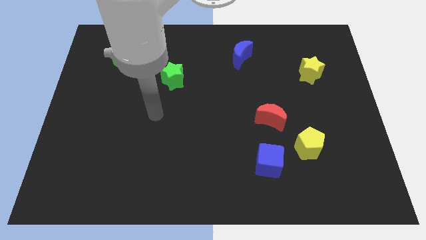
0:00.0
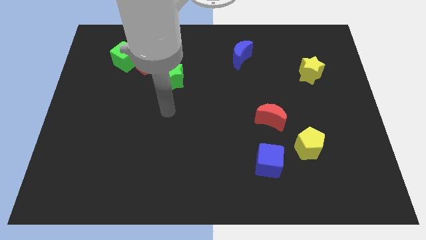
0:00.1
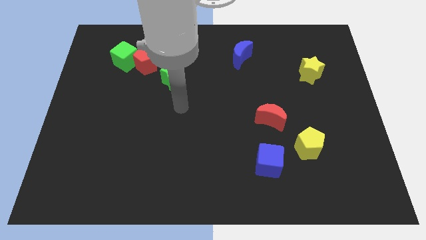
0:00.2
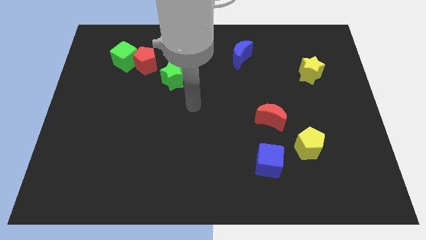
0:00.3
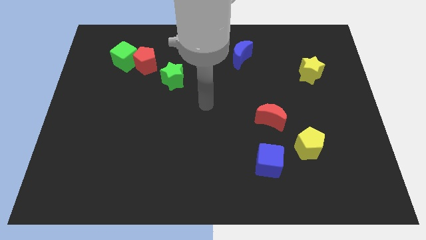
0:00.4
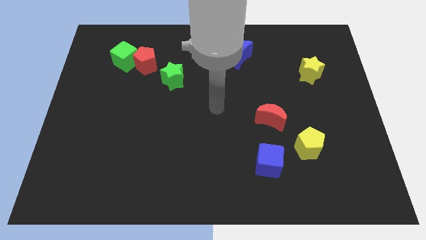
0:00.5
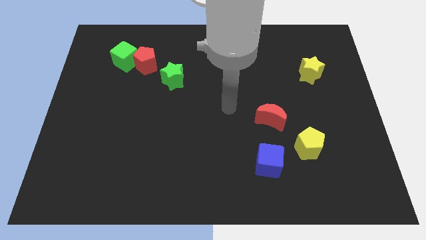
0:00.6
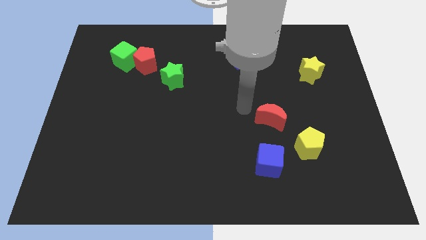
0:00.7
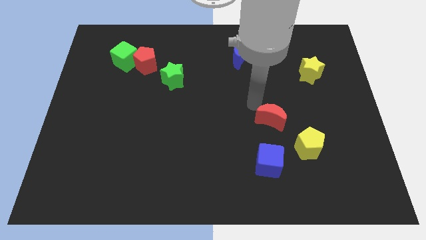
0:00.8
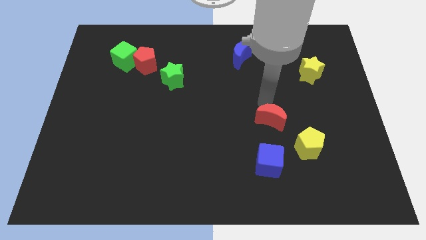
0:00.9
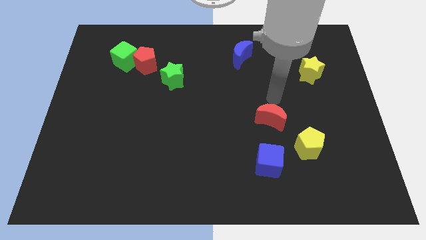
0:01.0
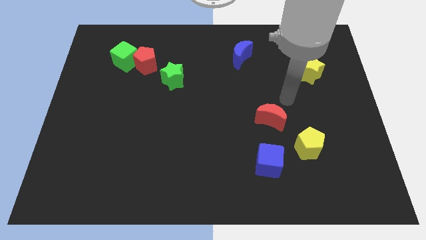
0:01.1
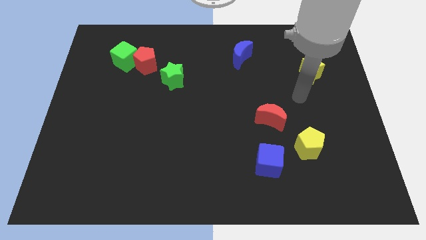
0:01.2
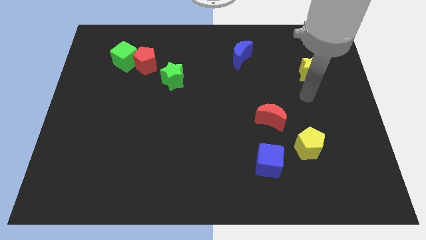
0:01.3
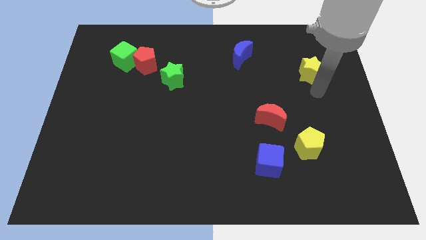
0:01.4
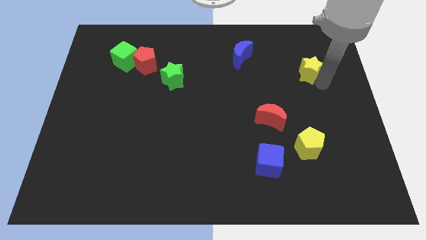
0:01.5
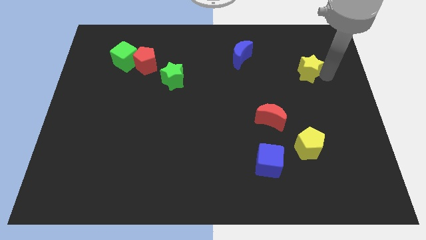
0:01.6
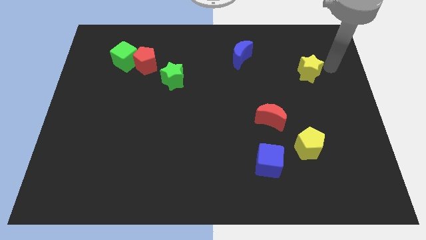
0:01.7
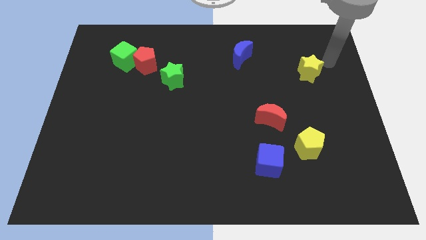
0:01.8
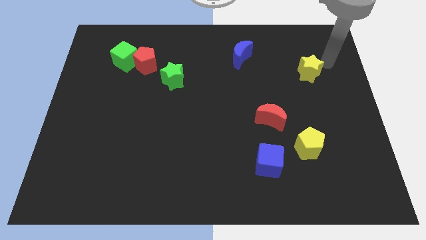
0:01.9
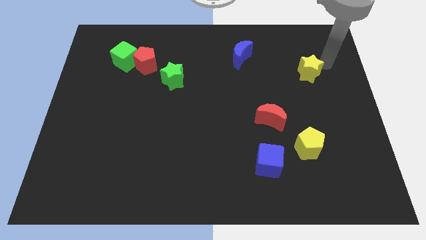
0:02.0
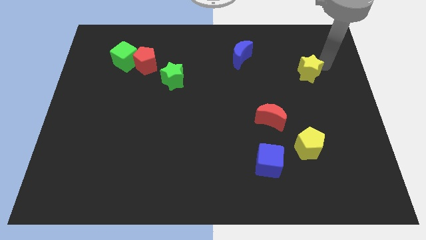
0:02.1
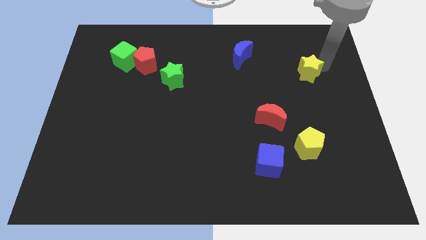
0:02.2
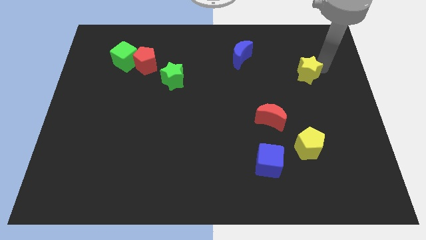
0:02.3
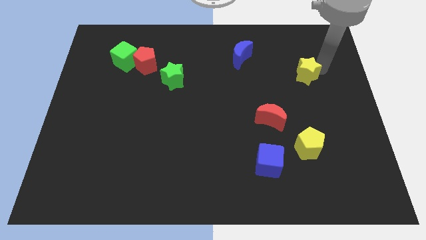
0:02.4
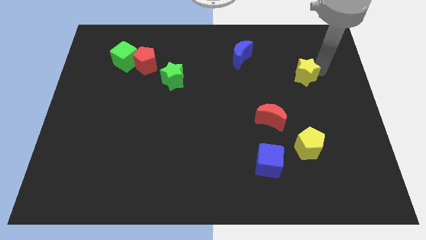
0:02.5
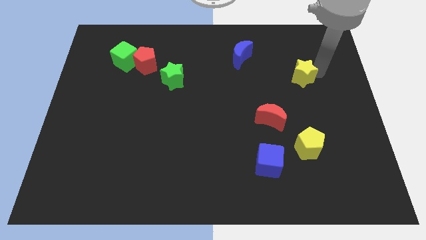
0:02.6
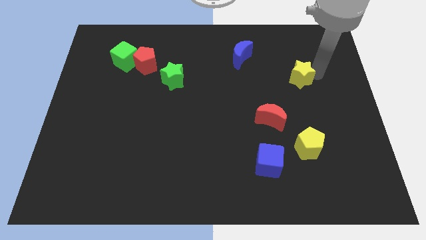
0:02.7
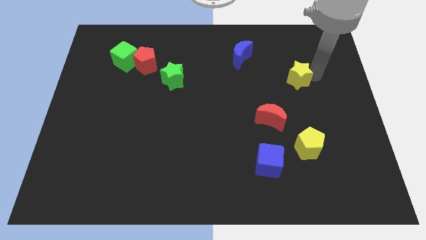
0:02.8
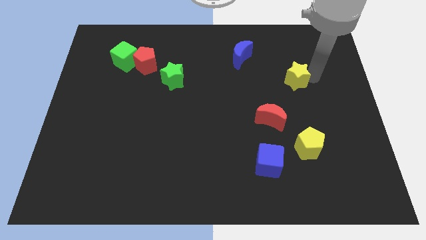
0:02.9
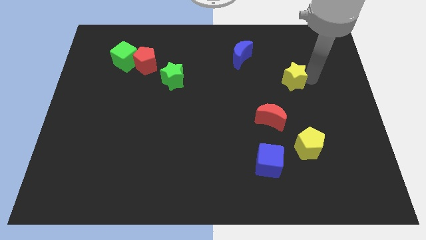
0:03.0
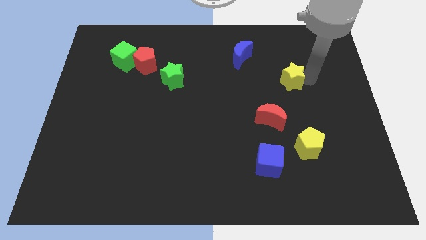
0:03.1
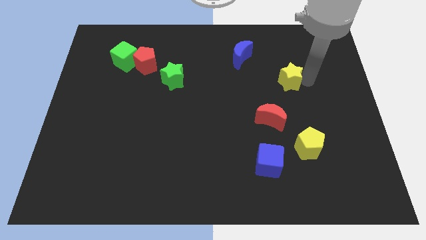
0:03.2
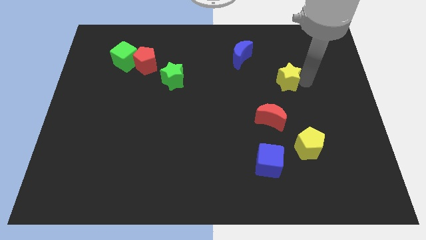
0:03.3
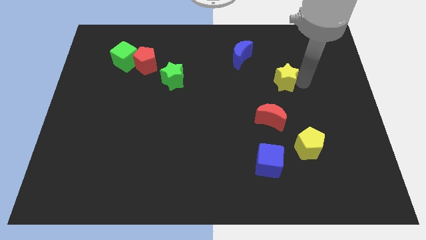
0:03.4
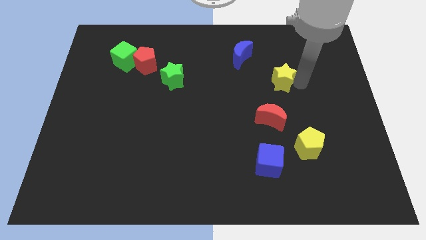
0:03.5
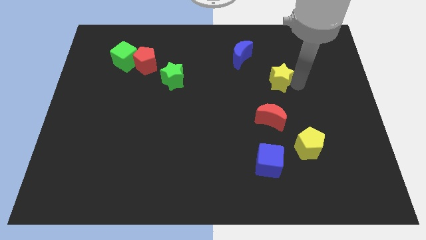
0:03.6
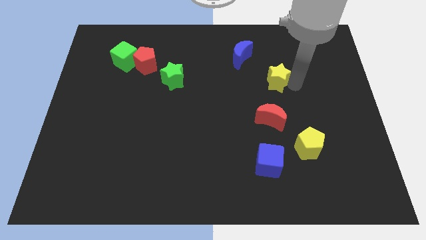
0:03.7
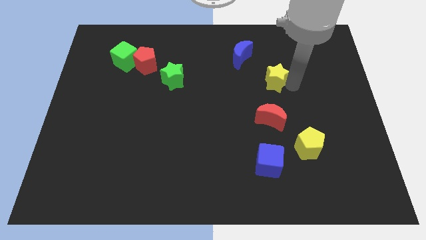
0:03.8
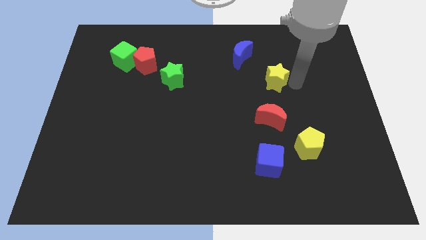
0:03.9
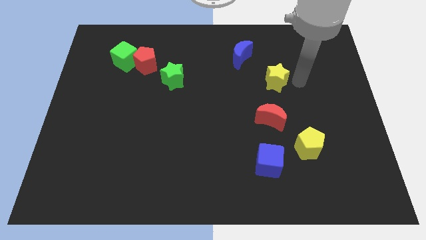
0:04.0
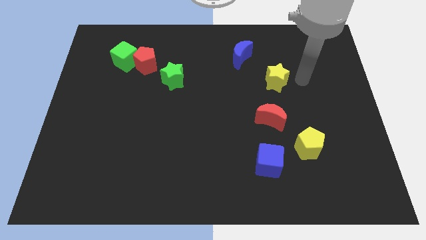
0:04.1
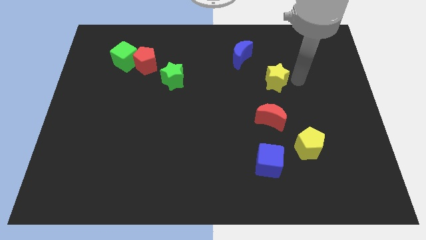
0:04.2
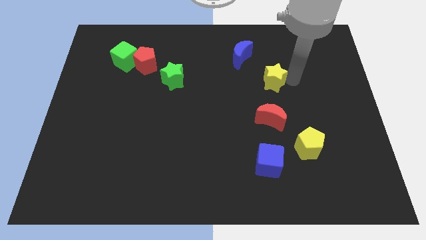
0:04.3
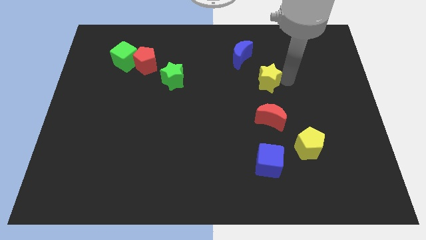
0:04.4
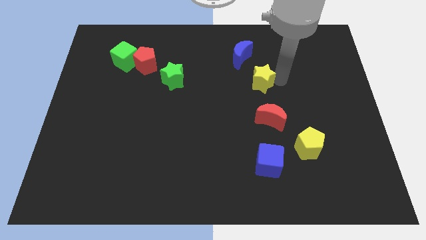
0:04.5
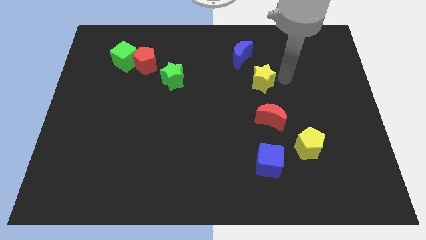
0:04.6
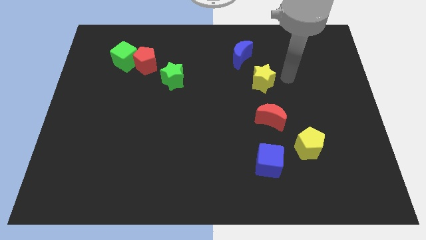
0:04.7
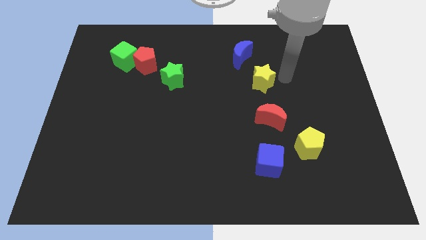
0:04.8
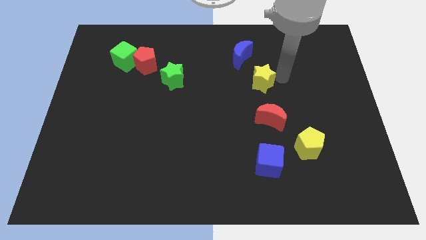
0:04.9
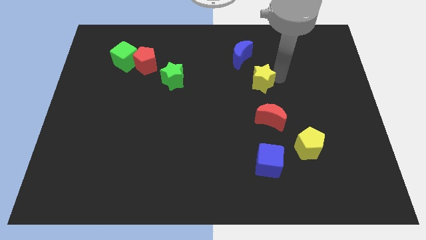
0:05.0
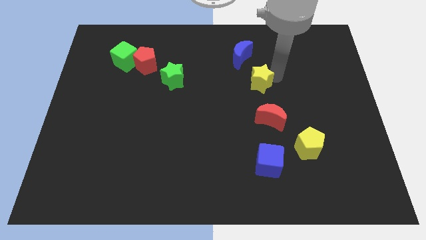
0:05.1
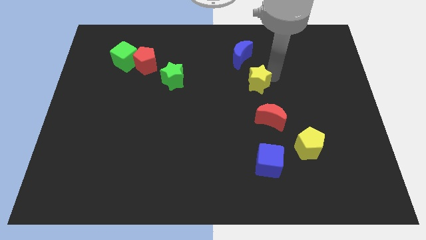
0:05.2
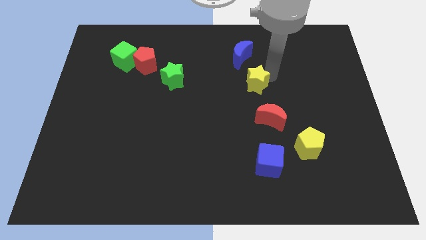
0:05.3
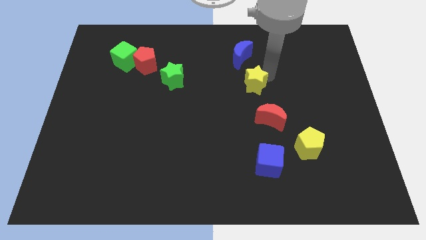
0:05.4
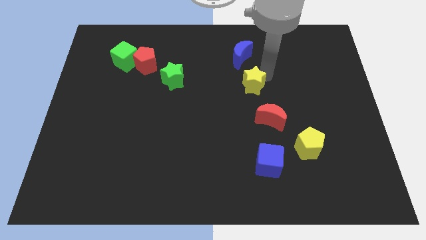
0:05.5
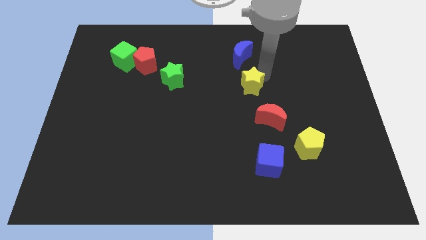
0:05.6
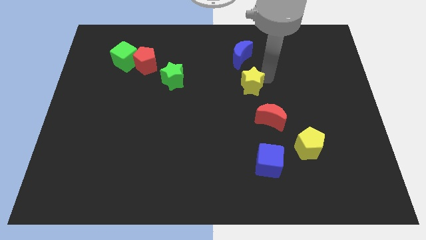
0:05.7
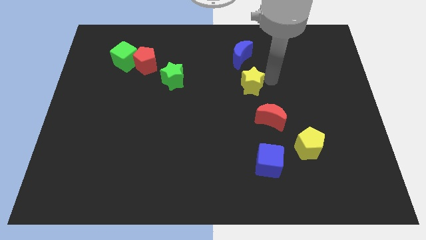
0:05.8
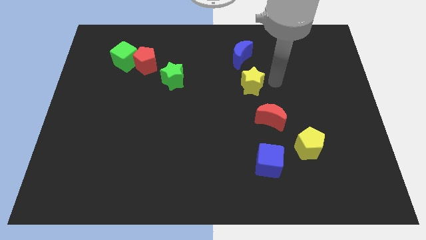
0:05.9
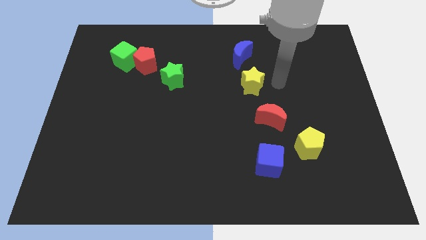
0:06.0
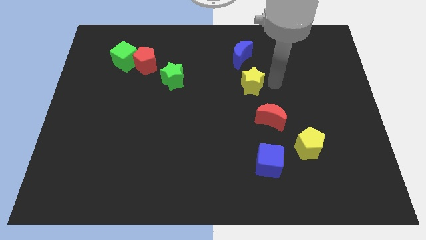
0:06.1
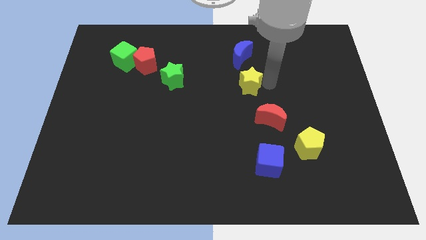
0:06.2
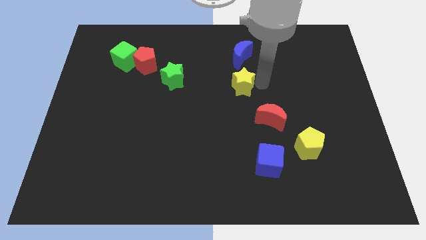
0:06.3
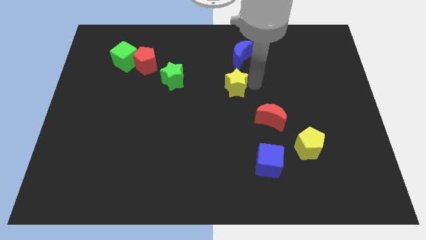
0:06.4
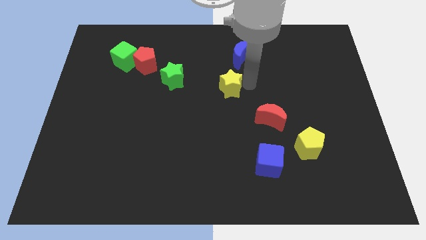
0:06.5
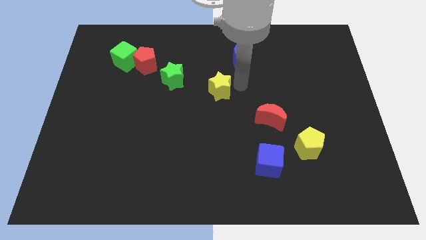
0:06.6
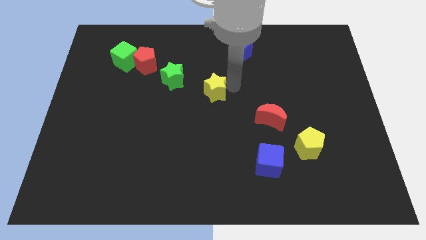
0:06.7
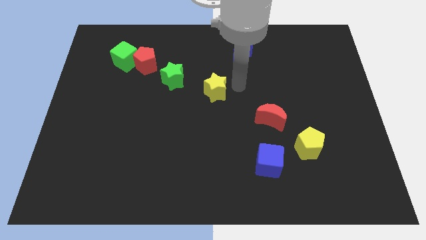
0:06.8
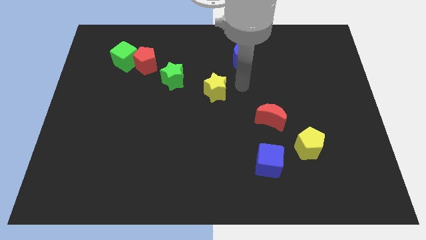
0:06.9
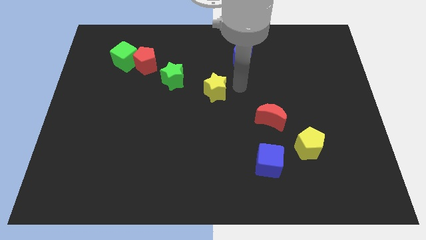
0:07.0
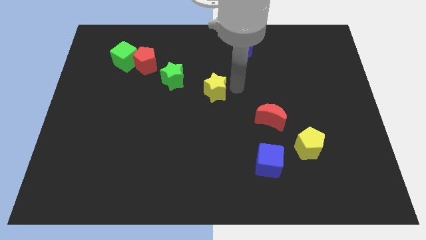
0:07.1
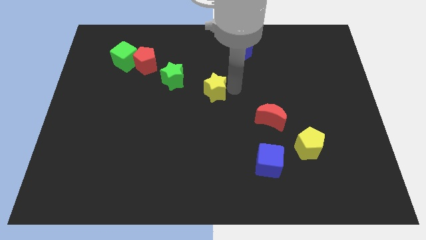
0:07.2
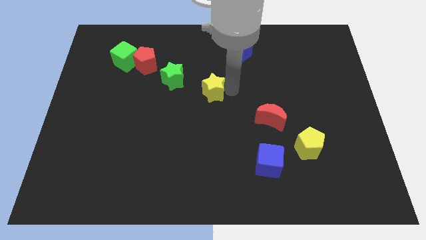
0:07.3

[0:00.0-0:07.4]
put the yellow star diagonally down and to the right of the green star

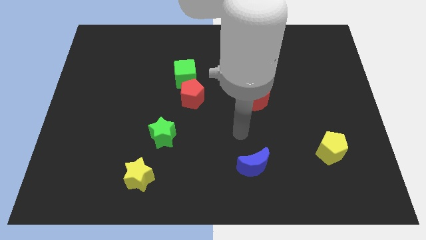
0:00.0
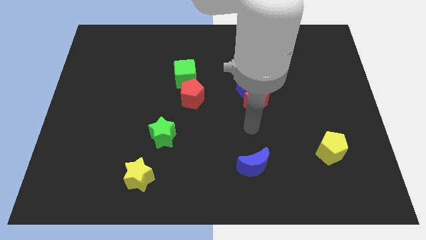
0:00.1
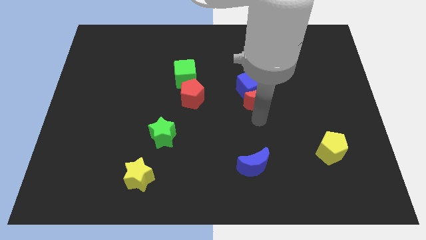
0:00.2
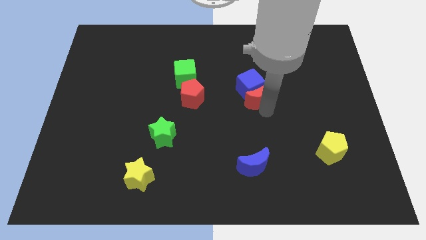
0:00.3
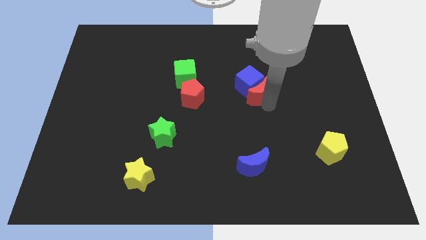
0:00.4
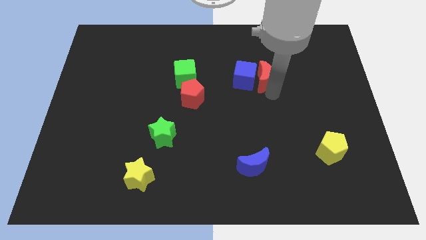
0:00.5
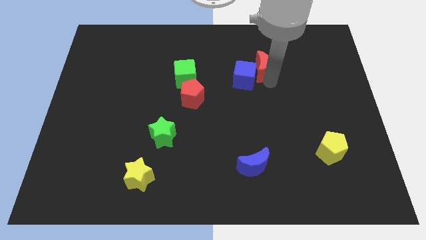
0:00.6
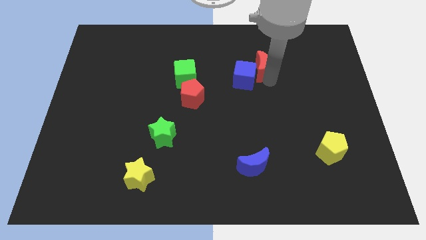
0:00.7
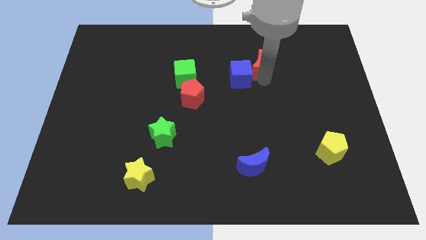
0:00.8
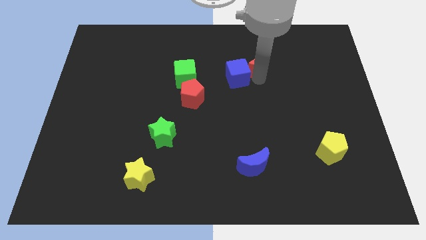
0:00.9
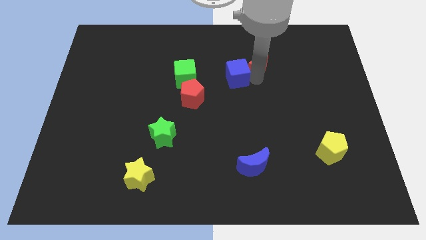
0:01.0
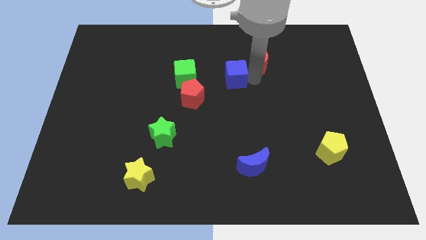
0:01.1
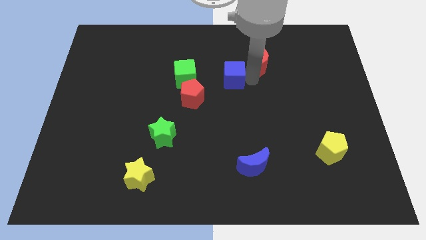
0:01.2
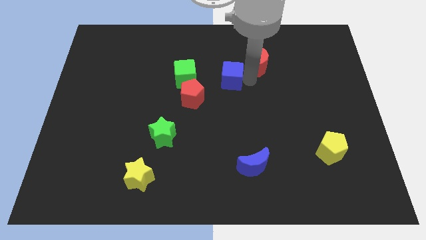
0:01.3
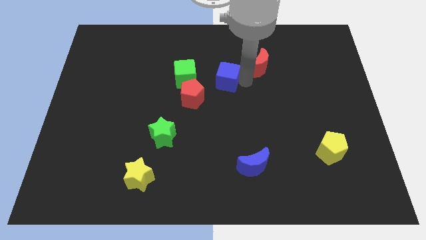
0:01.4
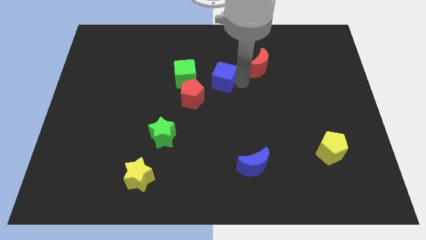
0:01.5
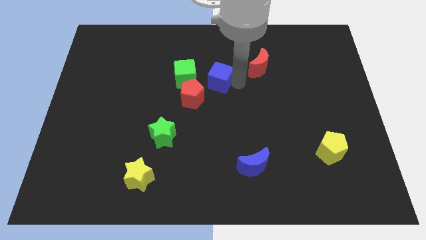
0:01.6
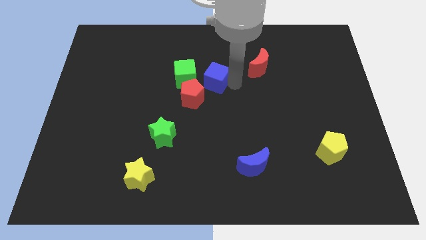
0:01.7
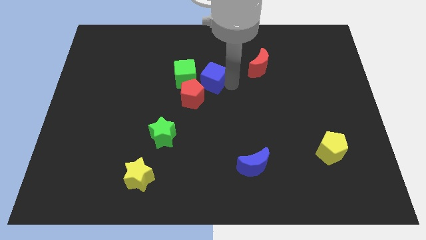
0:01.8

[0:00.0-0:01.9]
move the blue cube to the top of the red pentagon
